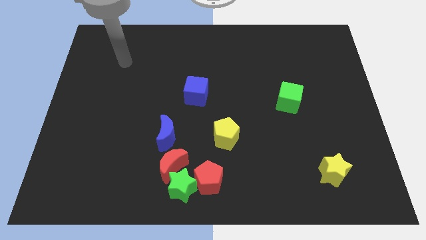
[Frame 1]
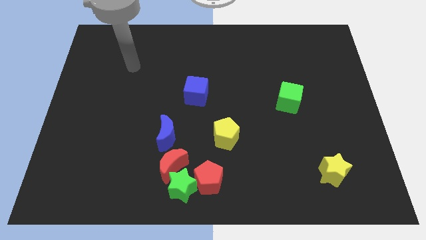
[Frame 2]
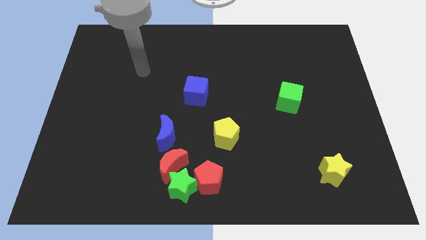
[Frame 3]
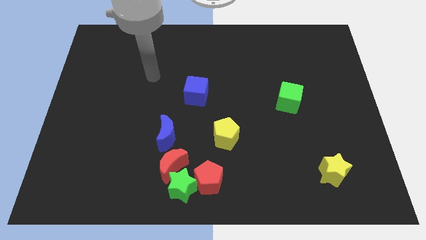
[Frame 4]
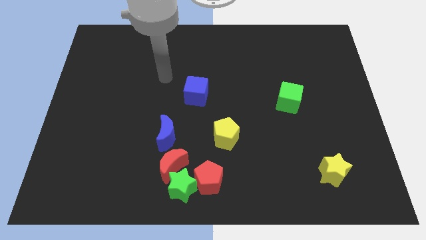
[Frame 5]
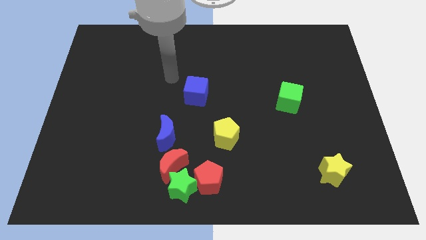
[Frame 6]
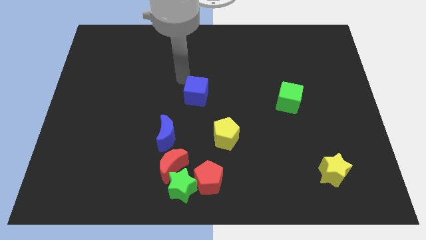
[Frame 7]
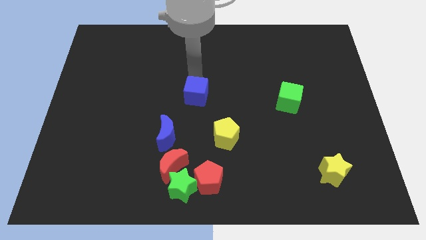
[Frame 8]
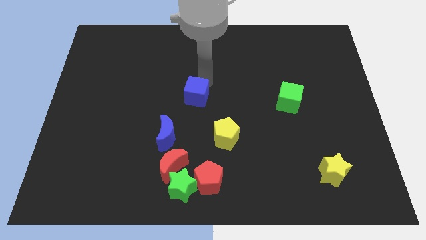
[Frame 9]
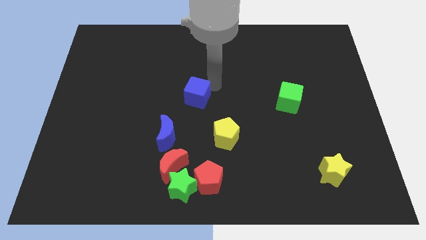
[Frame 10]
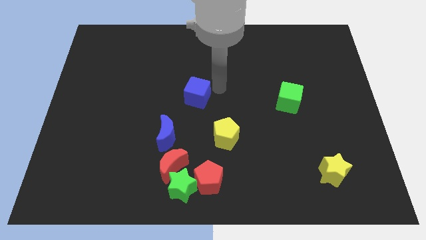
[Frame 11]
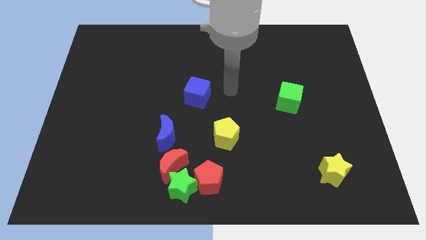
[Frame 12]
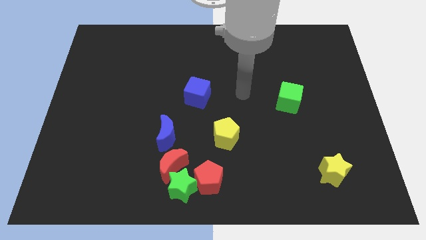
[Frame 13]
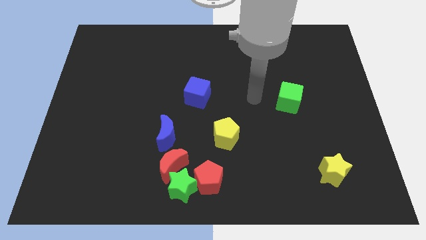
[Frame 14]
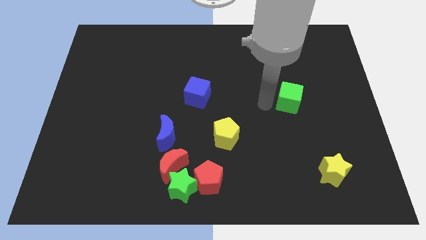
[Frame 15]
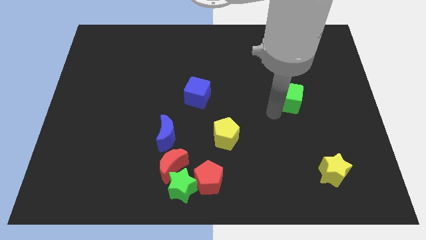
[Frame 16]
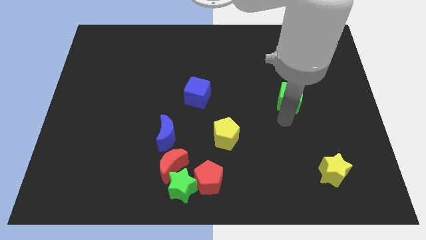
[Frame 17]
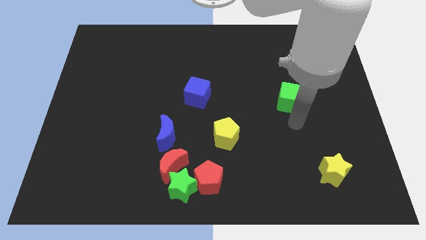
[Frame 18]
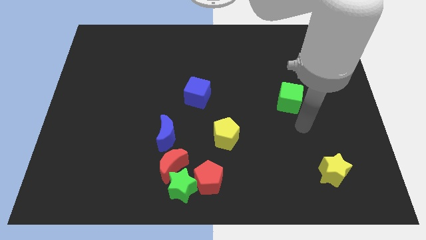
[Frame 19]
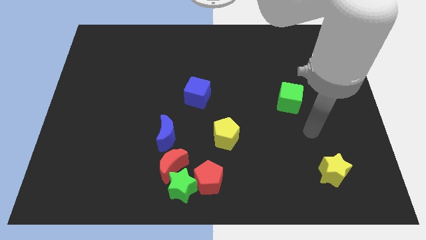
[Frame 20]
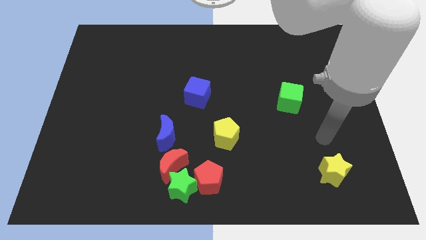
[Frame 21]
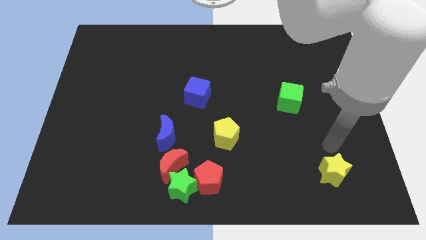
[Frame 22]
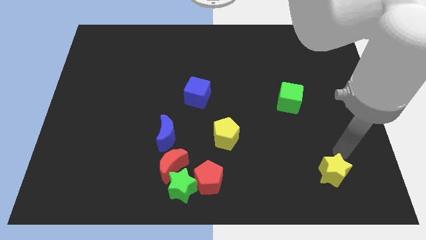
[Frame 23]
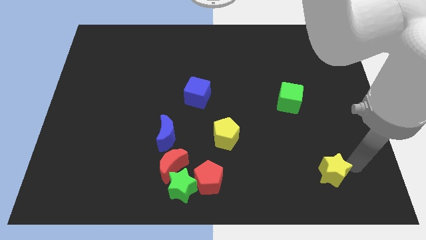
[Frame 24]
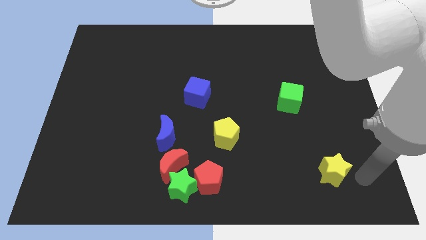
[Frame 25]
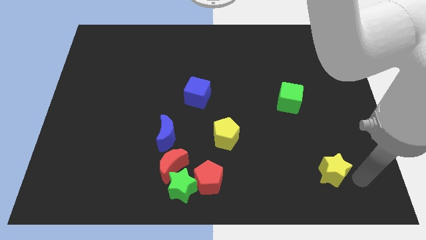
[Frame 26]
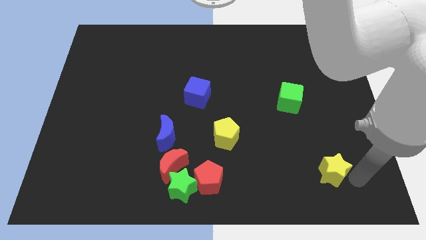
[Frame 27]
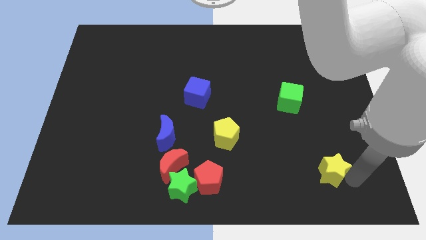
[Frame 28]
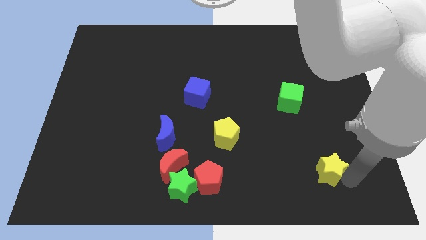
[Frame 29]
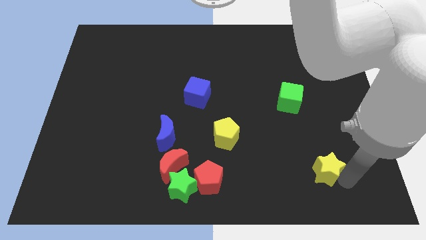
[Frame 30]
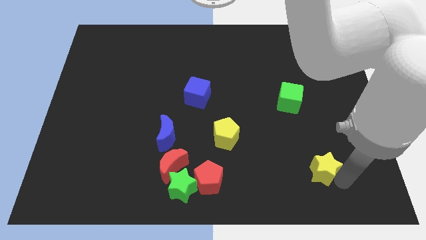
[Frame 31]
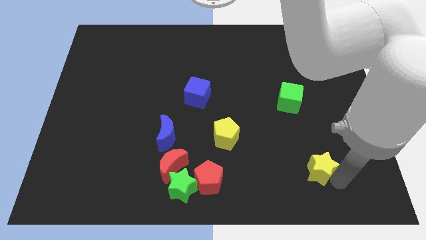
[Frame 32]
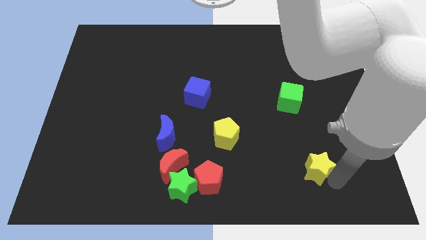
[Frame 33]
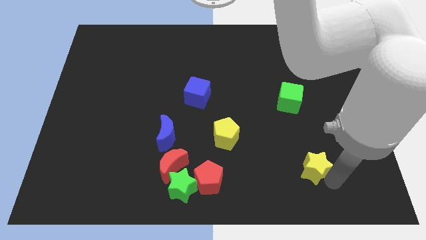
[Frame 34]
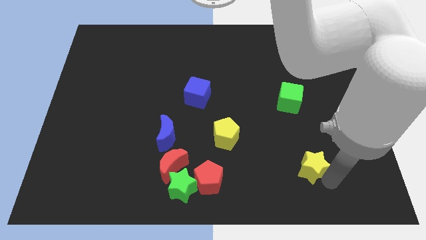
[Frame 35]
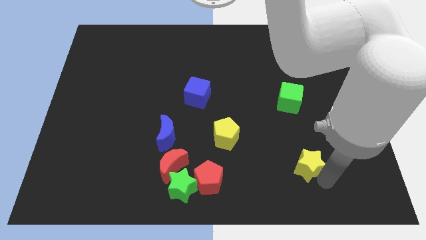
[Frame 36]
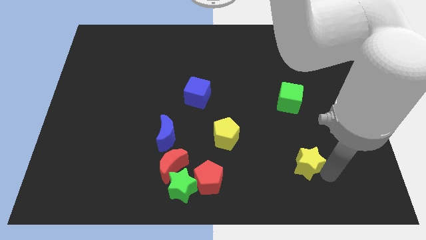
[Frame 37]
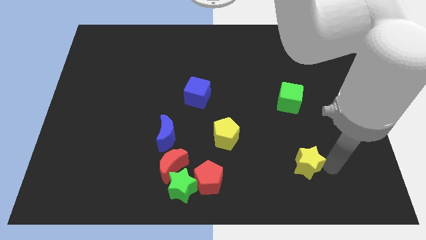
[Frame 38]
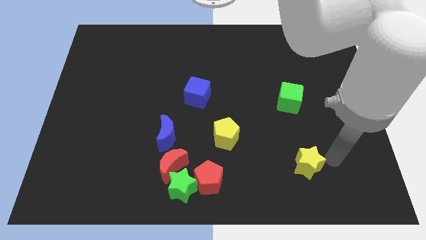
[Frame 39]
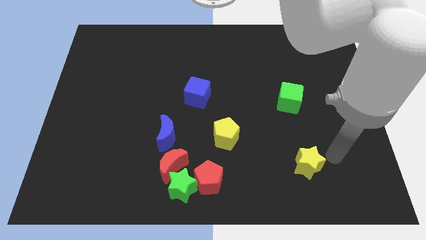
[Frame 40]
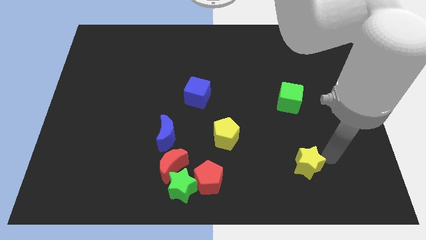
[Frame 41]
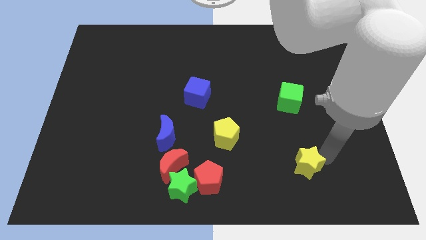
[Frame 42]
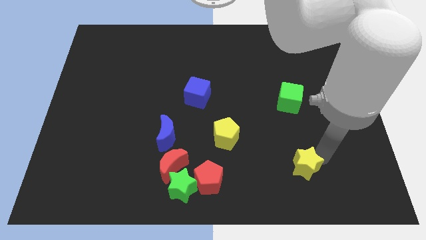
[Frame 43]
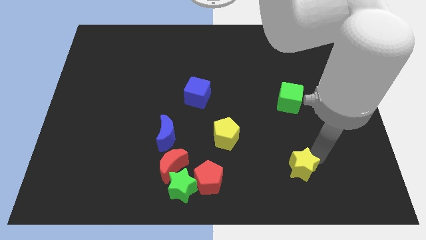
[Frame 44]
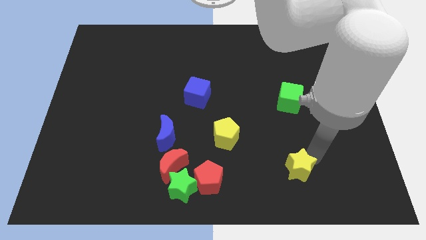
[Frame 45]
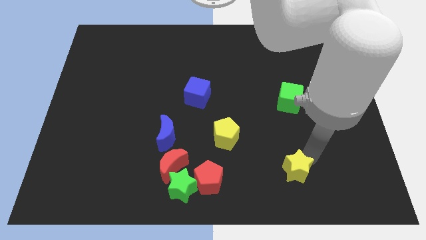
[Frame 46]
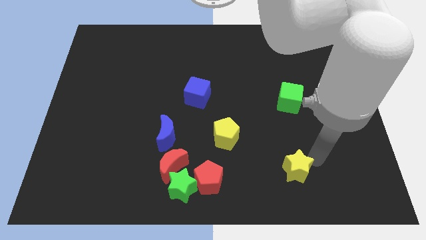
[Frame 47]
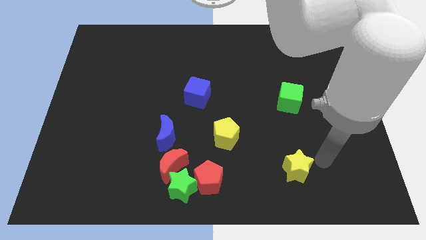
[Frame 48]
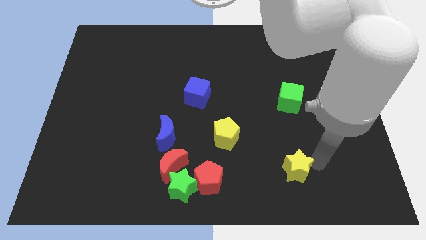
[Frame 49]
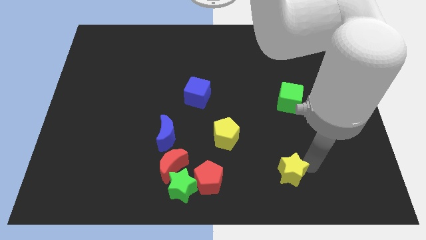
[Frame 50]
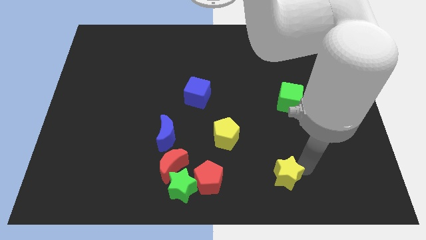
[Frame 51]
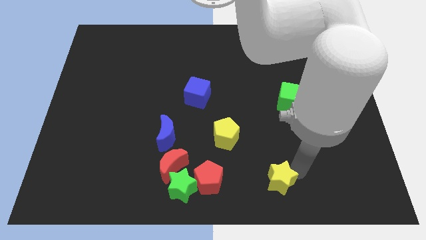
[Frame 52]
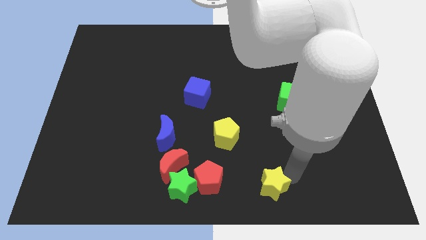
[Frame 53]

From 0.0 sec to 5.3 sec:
push the yellow star to the bottom side

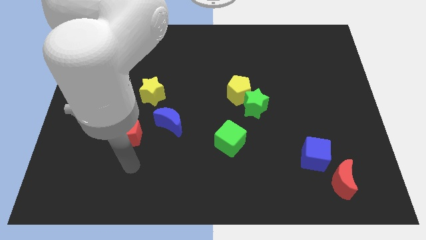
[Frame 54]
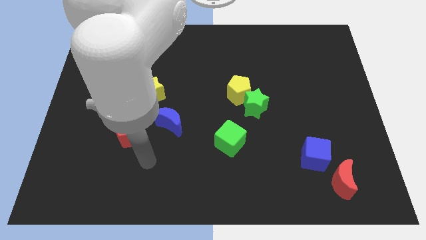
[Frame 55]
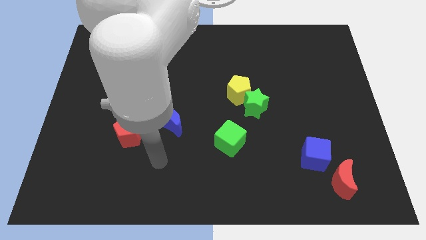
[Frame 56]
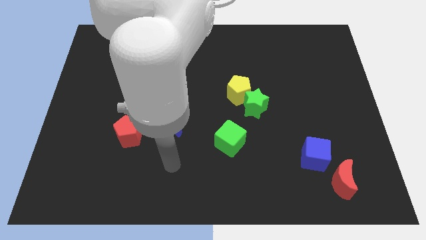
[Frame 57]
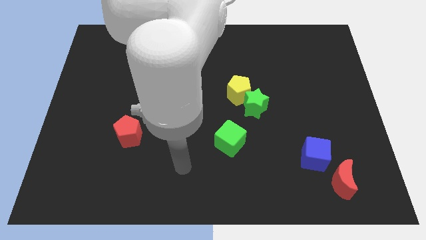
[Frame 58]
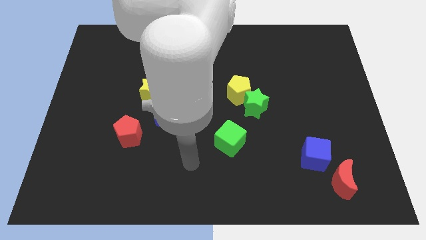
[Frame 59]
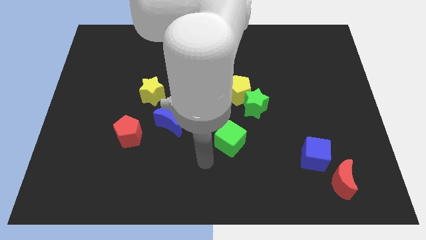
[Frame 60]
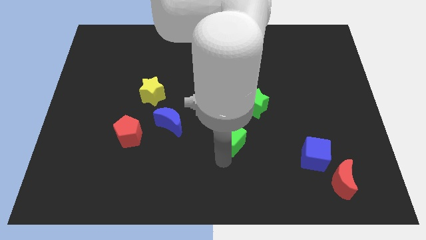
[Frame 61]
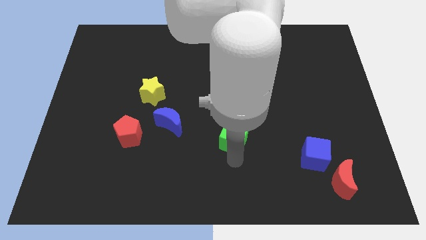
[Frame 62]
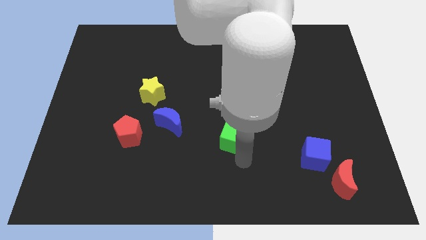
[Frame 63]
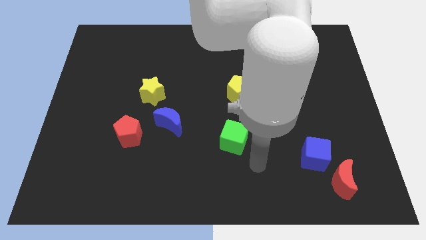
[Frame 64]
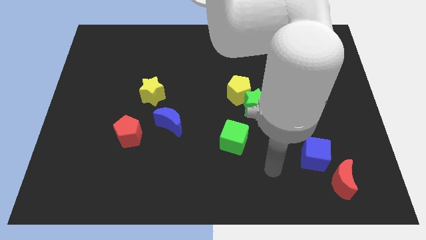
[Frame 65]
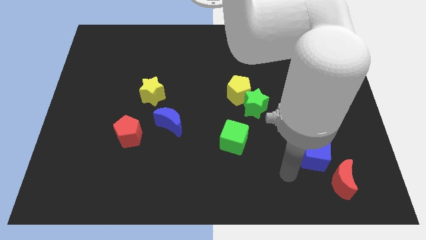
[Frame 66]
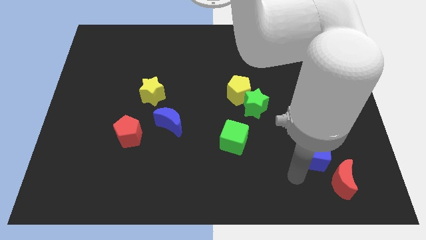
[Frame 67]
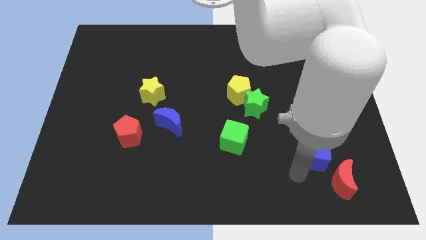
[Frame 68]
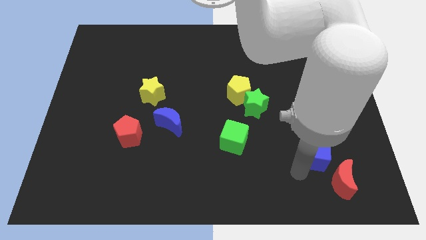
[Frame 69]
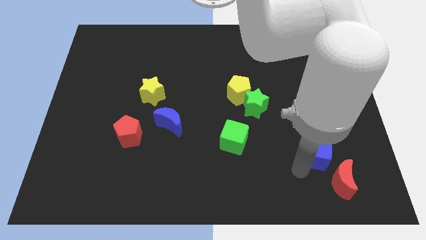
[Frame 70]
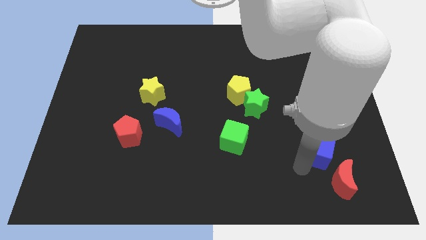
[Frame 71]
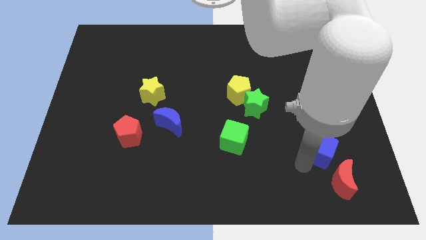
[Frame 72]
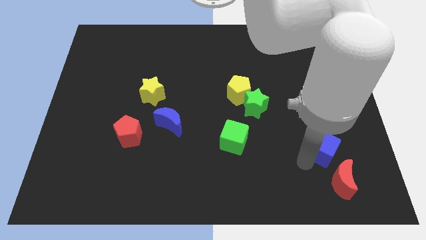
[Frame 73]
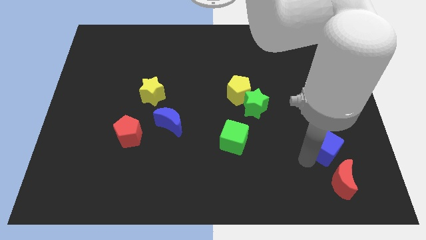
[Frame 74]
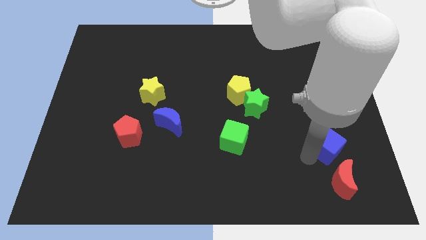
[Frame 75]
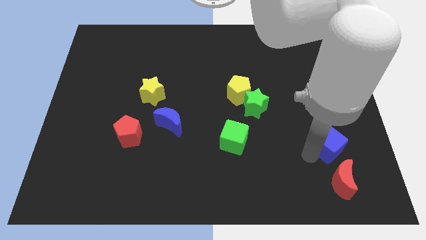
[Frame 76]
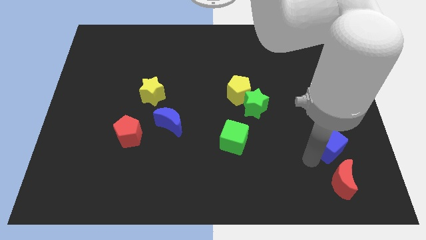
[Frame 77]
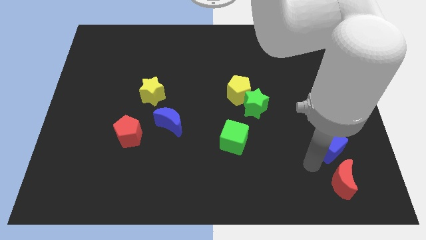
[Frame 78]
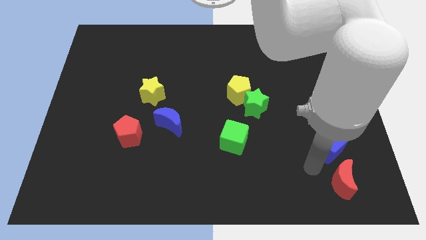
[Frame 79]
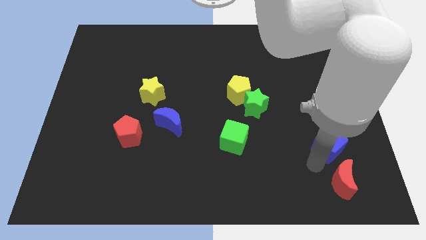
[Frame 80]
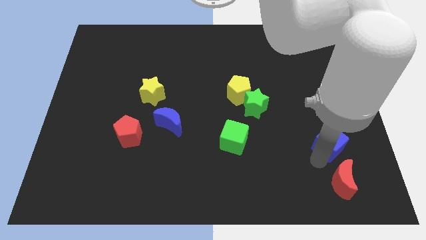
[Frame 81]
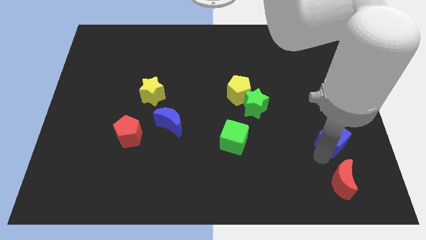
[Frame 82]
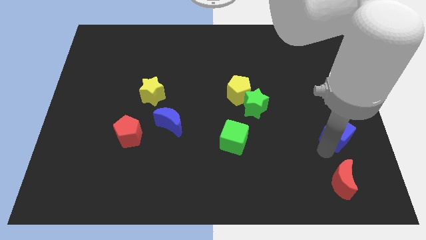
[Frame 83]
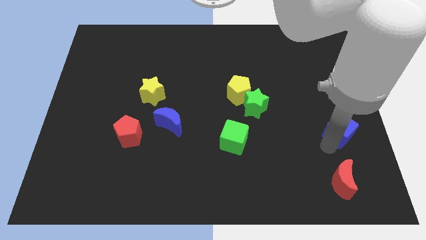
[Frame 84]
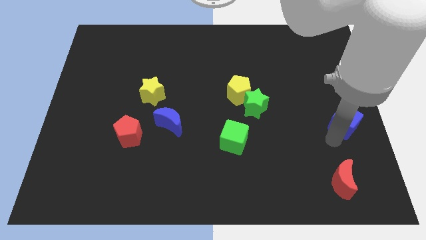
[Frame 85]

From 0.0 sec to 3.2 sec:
push the blue cube to the right side
